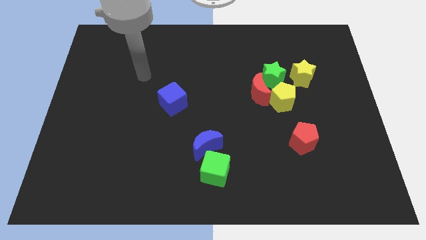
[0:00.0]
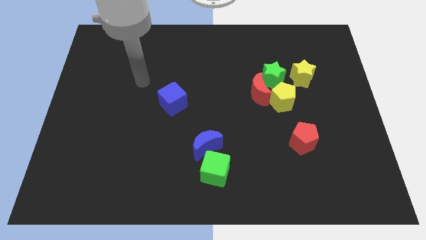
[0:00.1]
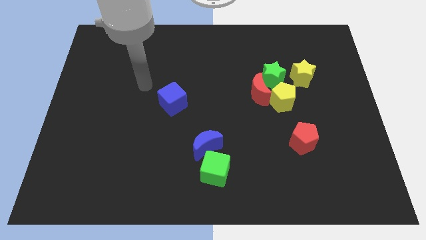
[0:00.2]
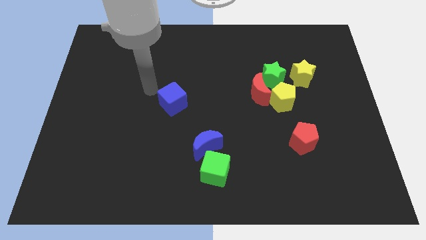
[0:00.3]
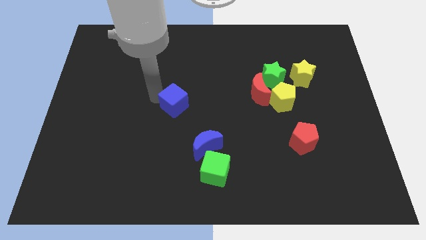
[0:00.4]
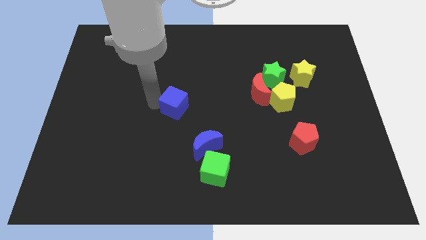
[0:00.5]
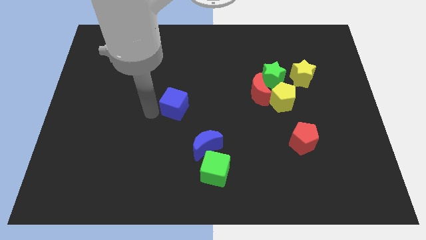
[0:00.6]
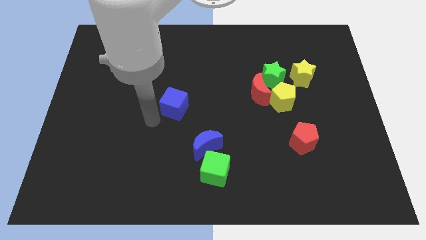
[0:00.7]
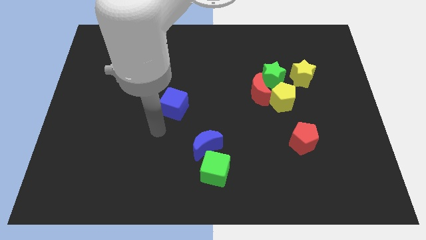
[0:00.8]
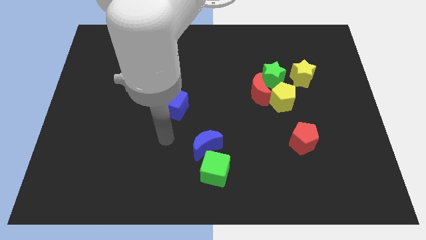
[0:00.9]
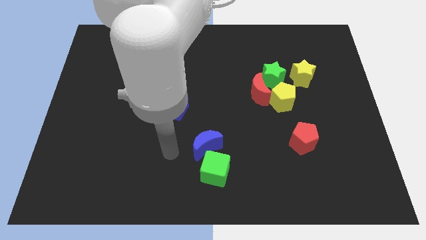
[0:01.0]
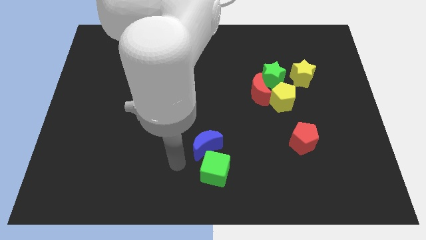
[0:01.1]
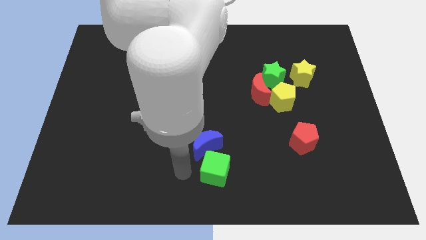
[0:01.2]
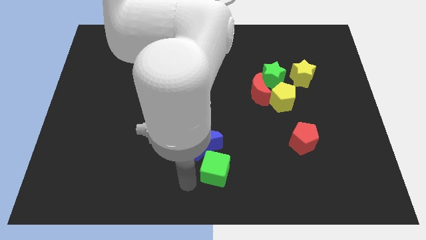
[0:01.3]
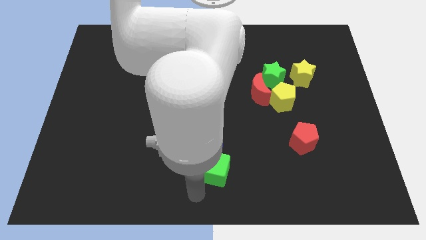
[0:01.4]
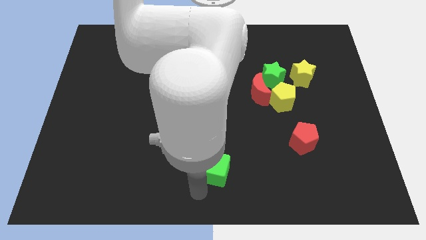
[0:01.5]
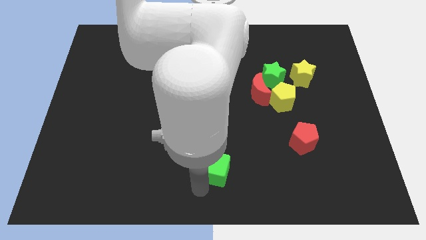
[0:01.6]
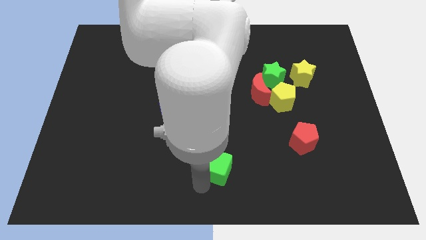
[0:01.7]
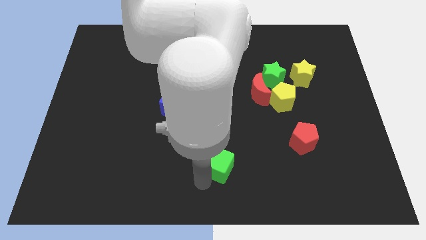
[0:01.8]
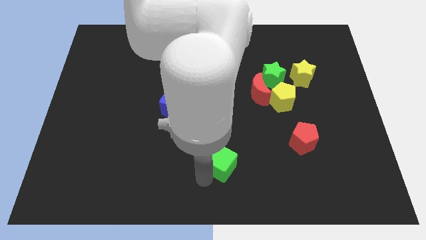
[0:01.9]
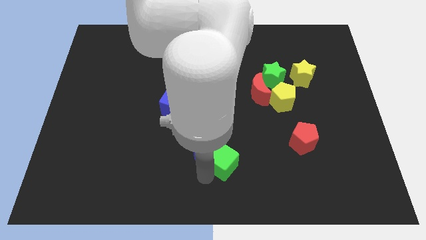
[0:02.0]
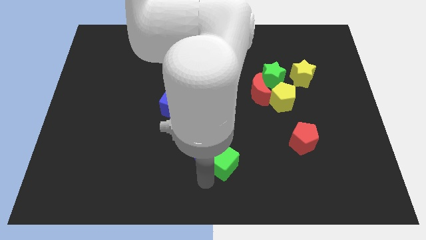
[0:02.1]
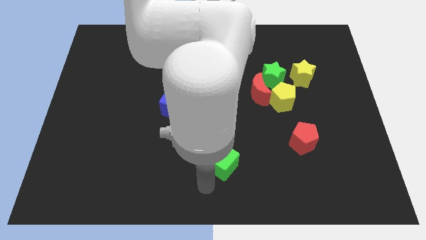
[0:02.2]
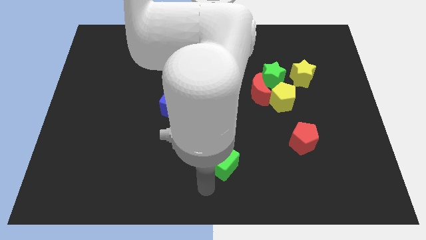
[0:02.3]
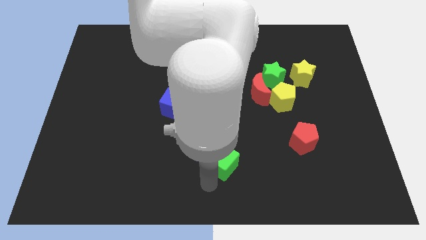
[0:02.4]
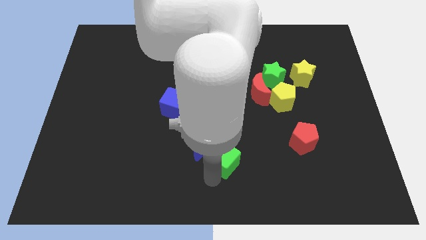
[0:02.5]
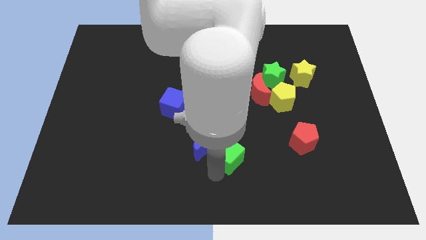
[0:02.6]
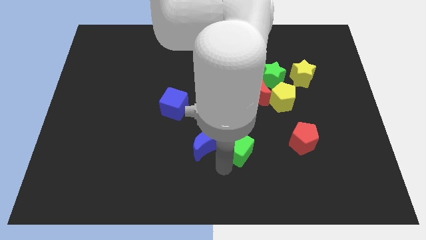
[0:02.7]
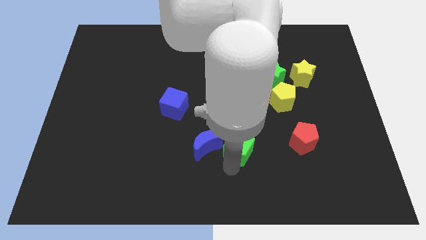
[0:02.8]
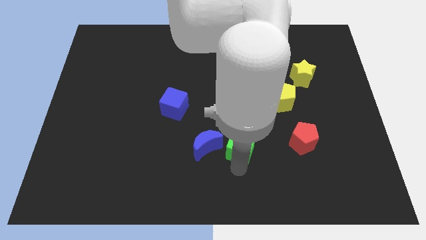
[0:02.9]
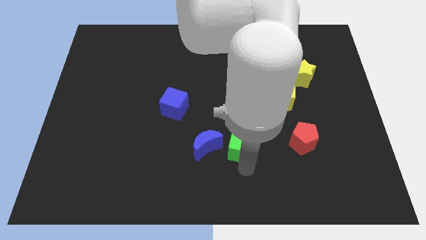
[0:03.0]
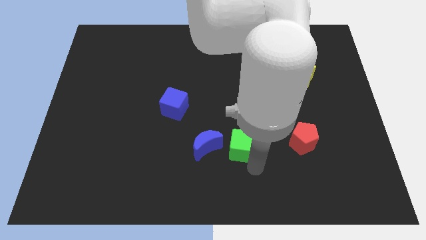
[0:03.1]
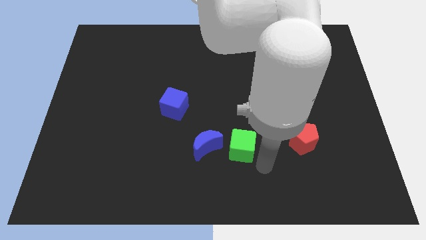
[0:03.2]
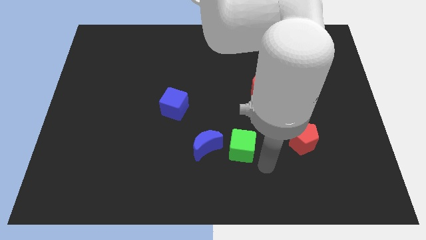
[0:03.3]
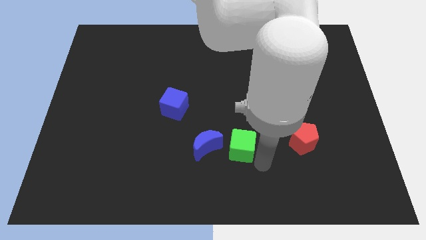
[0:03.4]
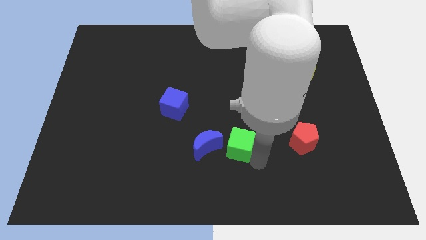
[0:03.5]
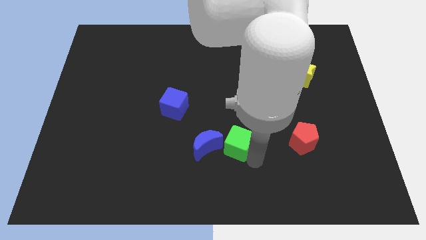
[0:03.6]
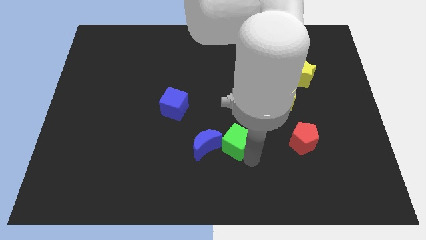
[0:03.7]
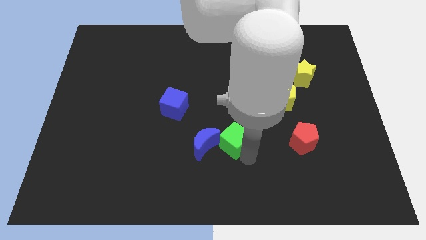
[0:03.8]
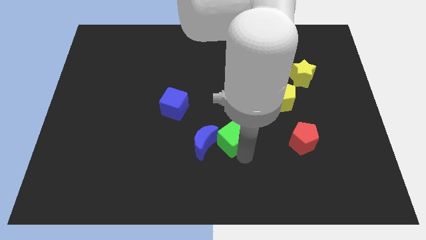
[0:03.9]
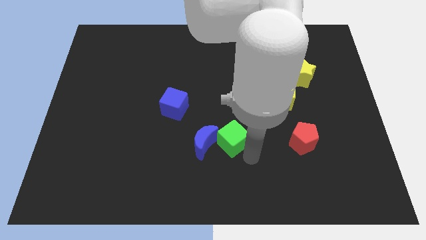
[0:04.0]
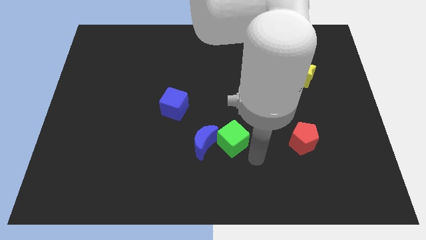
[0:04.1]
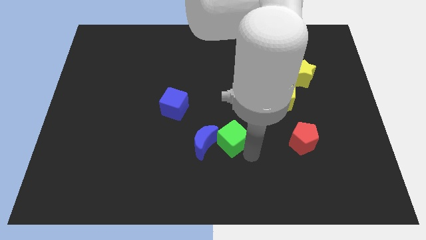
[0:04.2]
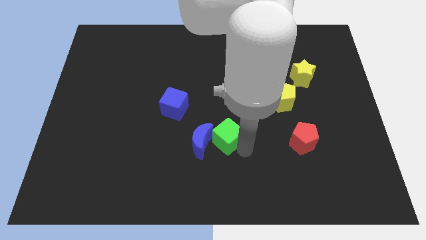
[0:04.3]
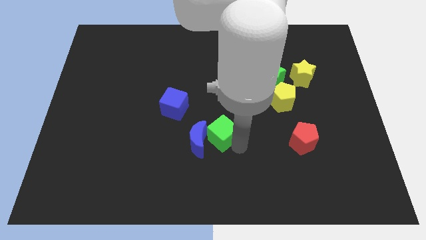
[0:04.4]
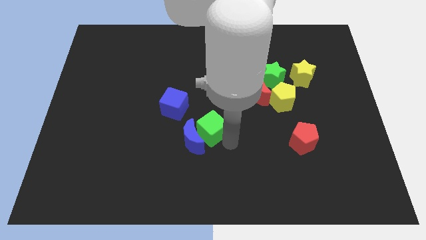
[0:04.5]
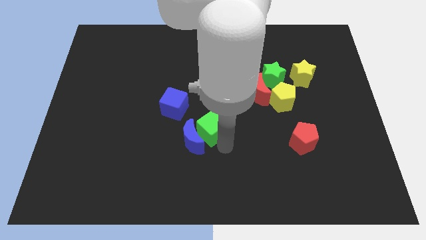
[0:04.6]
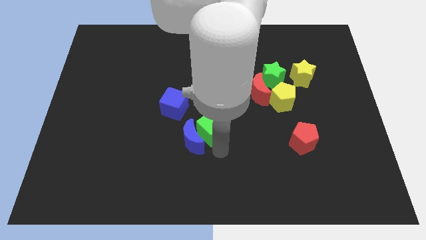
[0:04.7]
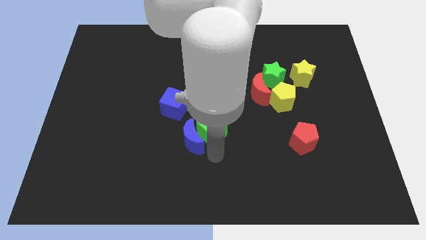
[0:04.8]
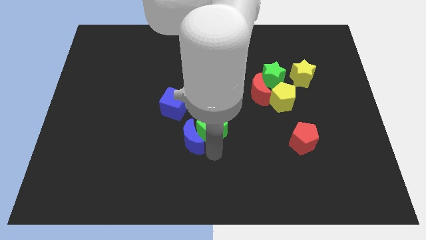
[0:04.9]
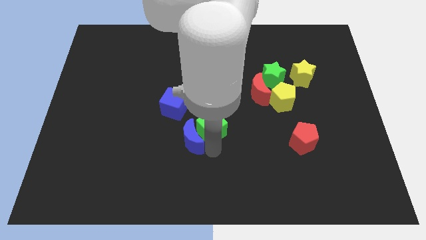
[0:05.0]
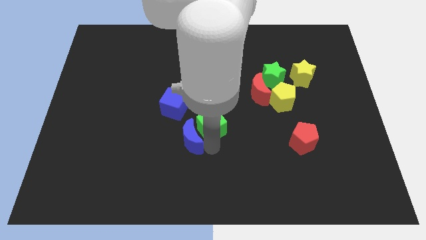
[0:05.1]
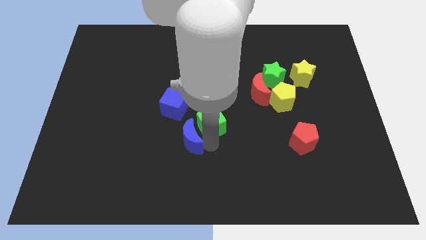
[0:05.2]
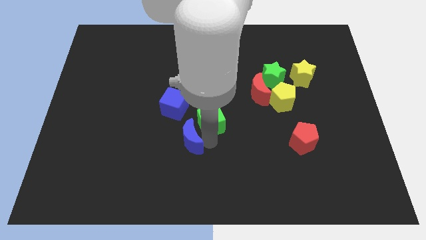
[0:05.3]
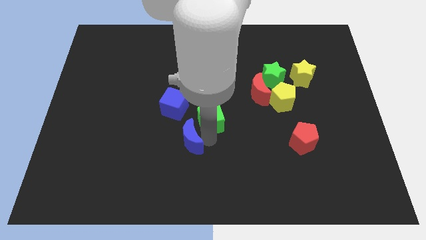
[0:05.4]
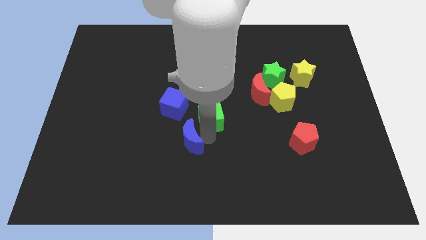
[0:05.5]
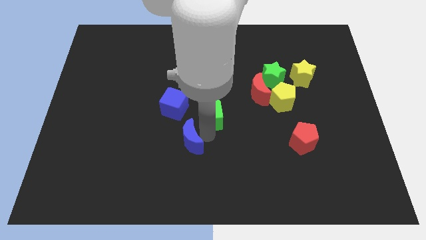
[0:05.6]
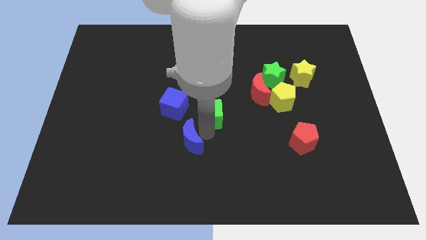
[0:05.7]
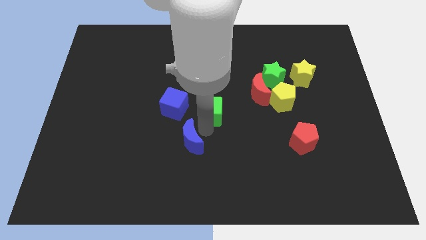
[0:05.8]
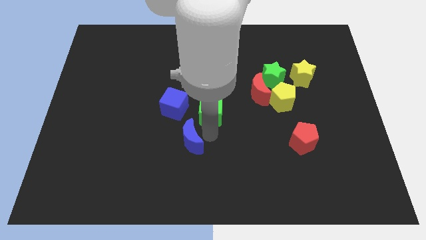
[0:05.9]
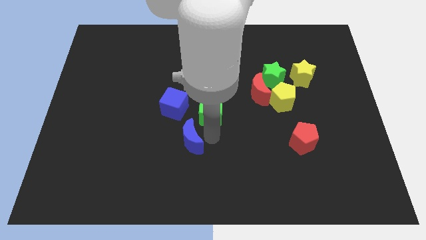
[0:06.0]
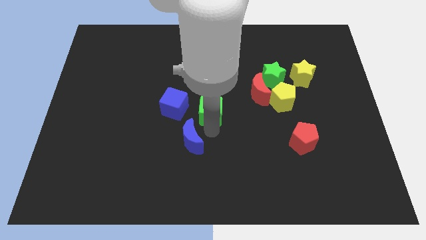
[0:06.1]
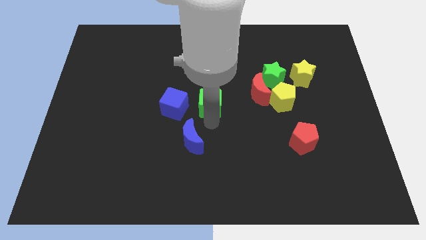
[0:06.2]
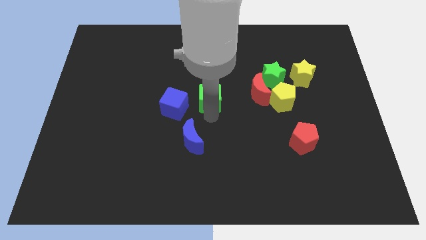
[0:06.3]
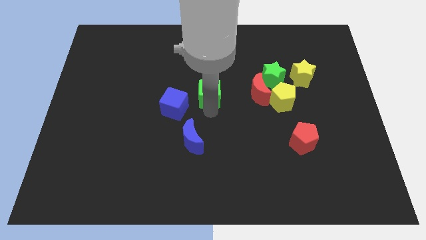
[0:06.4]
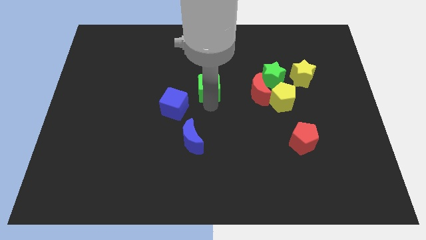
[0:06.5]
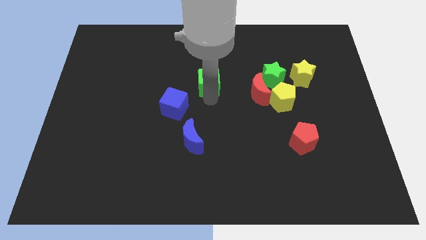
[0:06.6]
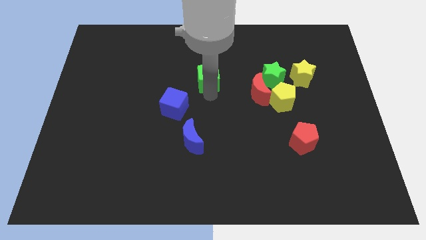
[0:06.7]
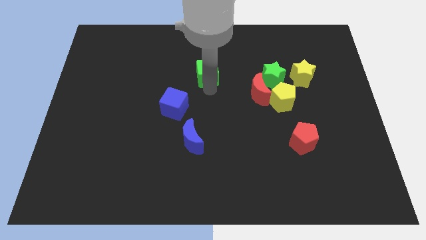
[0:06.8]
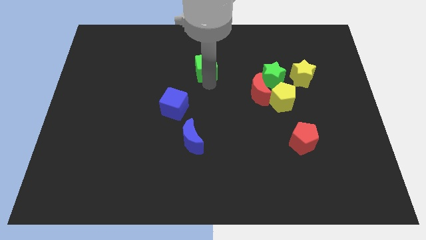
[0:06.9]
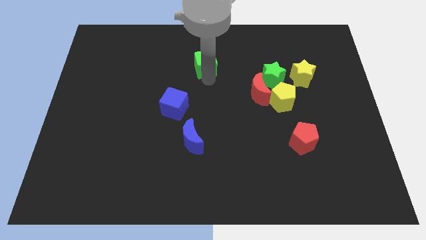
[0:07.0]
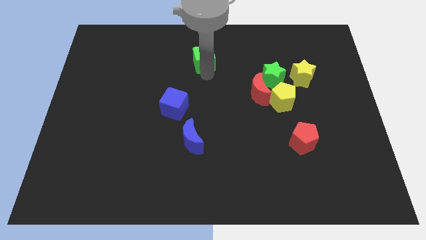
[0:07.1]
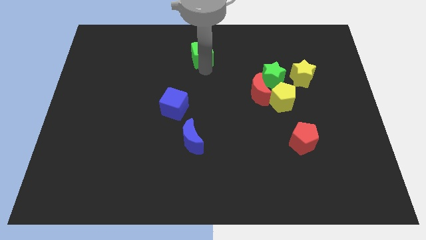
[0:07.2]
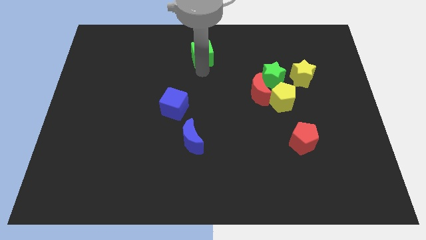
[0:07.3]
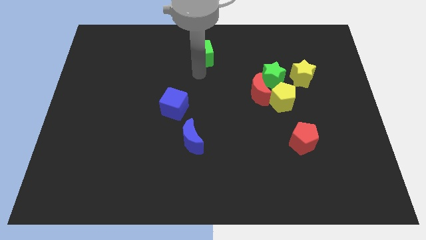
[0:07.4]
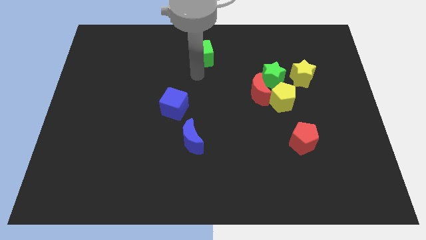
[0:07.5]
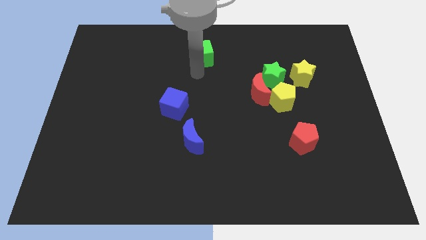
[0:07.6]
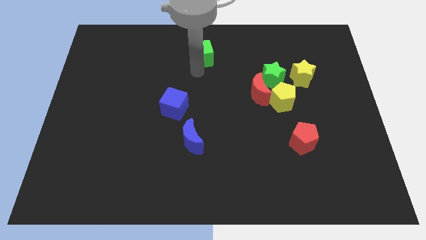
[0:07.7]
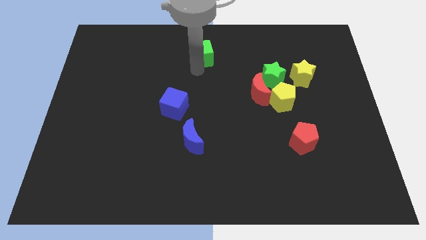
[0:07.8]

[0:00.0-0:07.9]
move the green cube to the top
